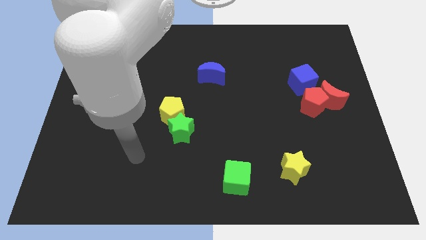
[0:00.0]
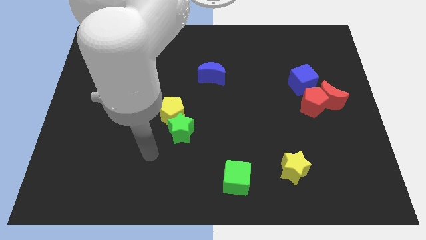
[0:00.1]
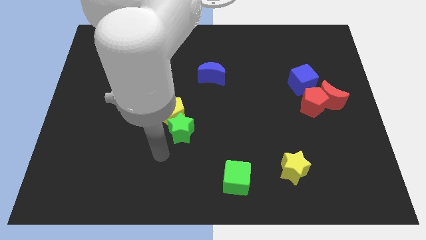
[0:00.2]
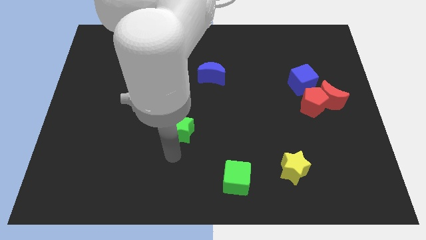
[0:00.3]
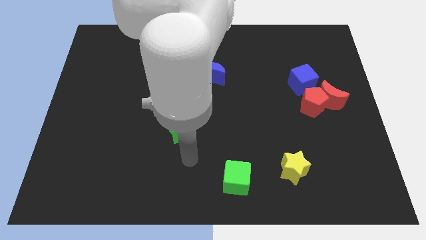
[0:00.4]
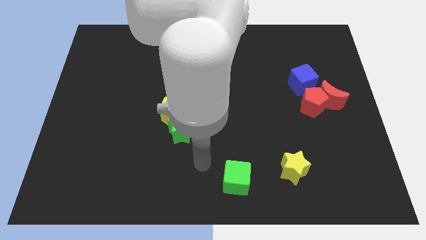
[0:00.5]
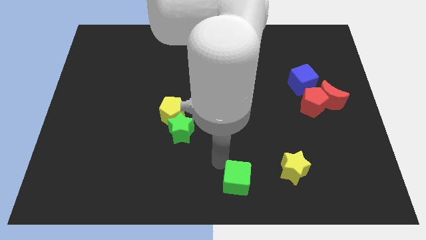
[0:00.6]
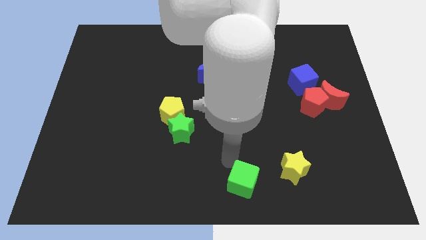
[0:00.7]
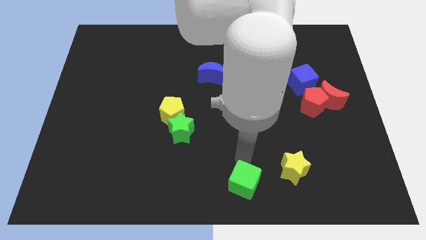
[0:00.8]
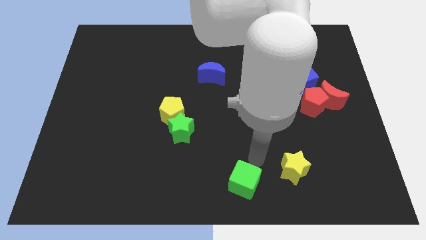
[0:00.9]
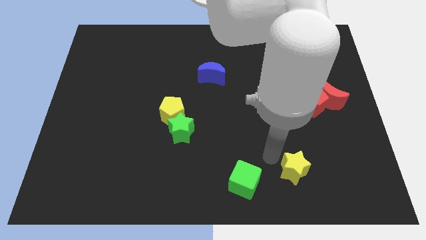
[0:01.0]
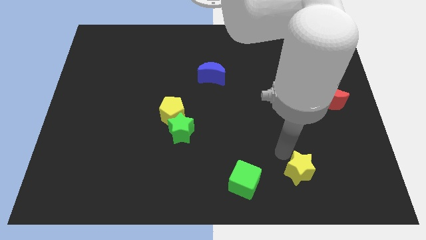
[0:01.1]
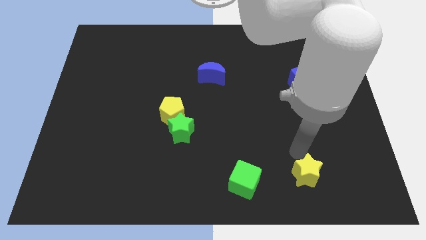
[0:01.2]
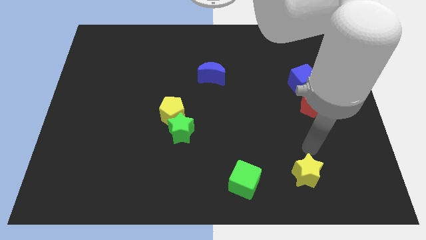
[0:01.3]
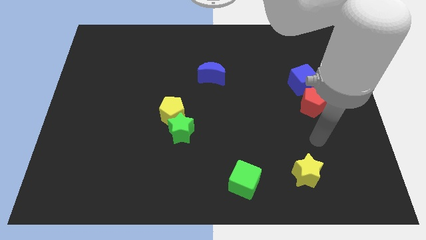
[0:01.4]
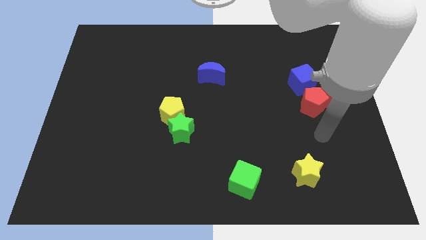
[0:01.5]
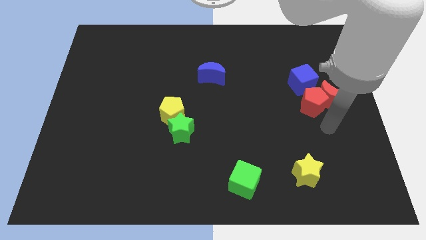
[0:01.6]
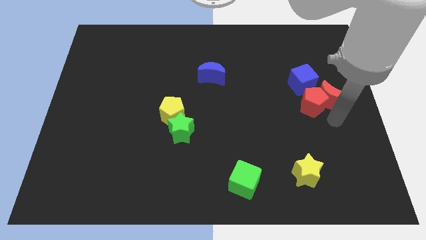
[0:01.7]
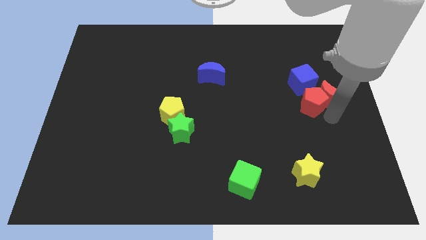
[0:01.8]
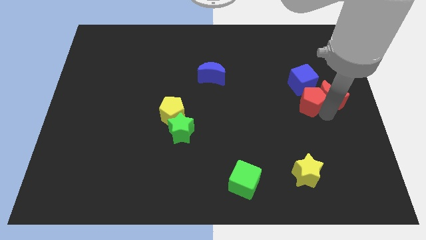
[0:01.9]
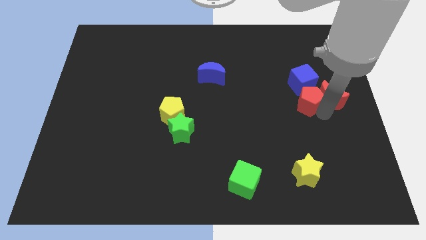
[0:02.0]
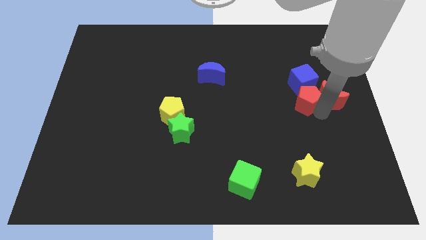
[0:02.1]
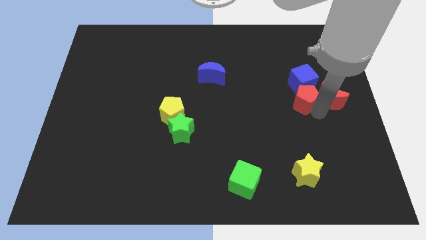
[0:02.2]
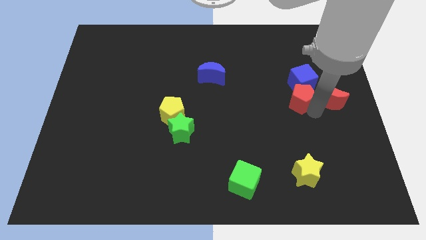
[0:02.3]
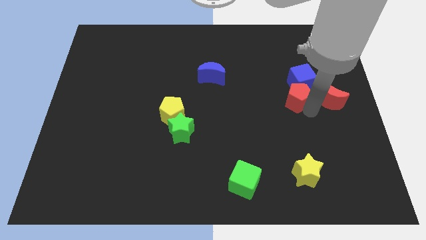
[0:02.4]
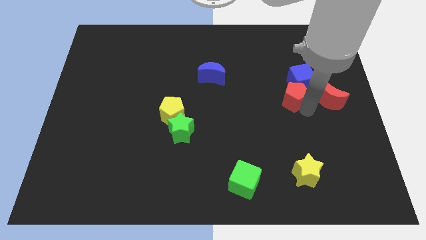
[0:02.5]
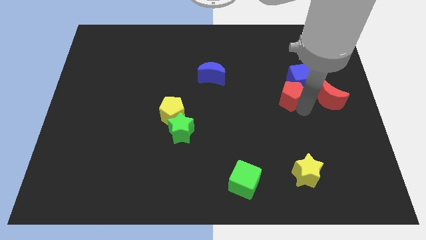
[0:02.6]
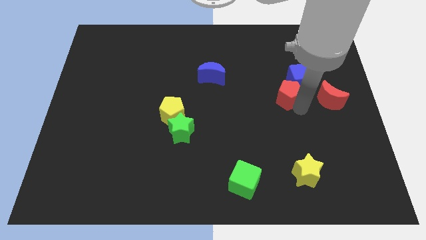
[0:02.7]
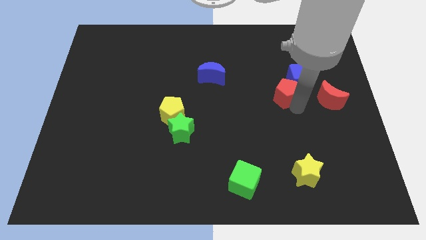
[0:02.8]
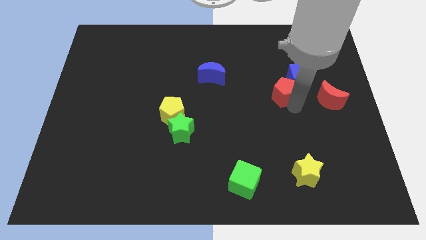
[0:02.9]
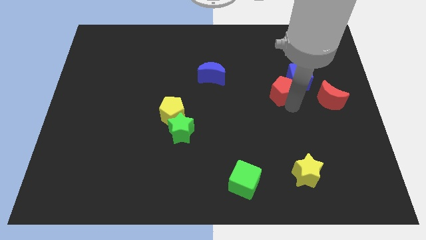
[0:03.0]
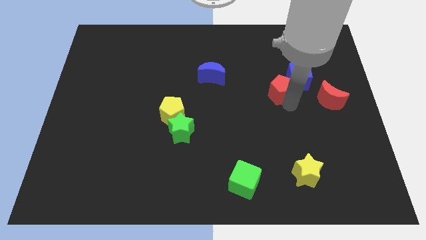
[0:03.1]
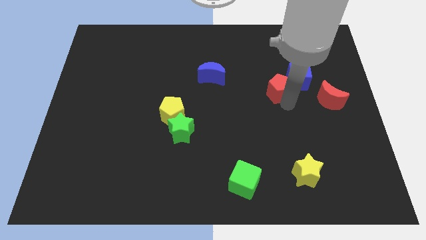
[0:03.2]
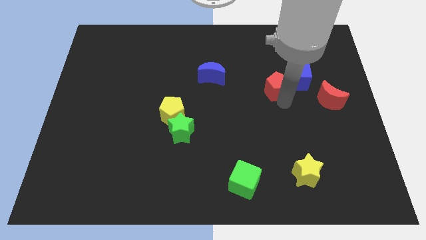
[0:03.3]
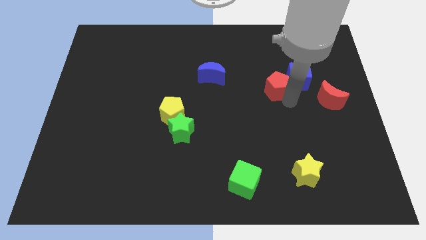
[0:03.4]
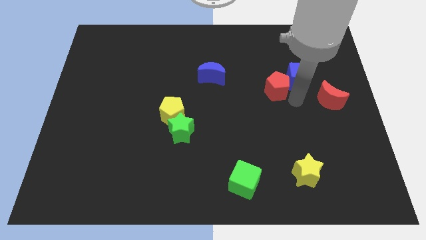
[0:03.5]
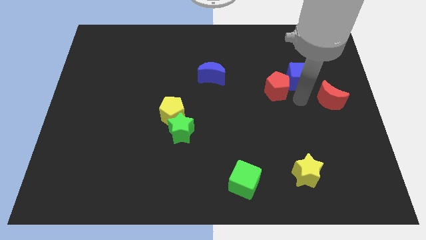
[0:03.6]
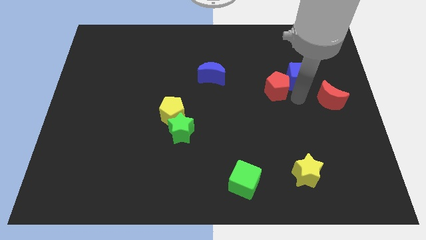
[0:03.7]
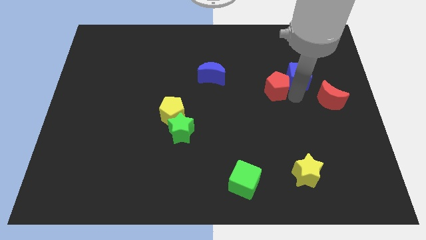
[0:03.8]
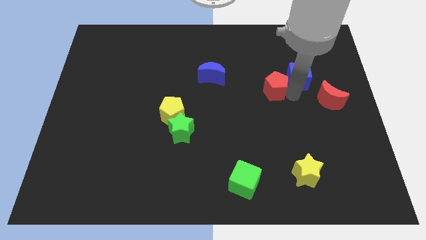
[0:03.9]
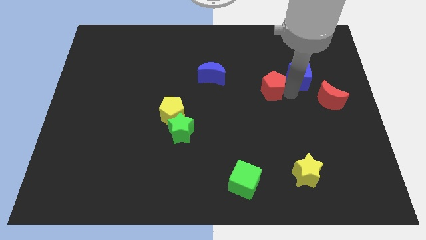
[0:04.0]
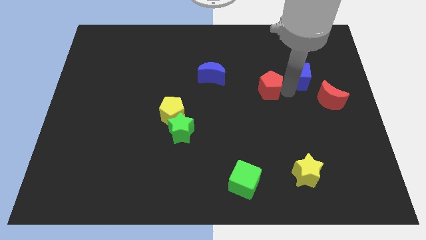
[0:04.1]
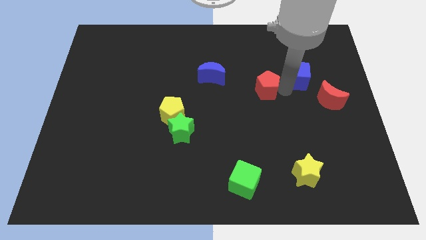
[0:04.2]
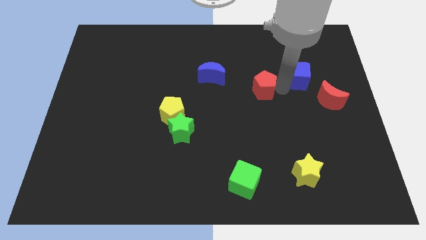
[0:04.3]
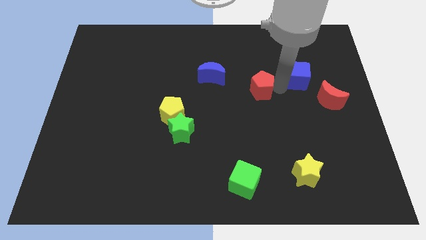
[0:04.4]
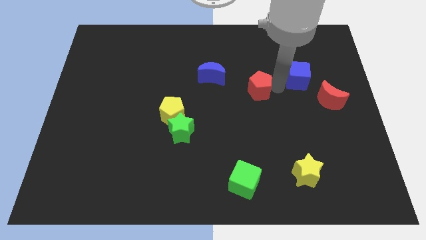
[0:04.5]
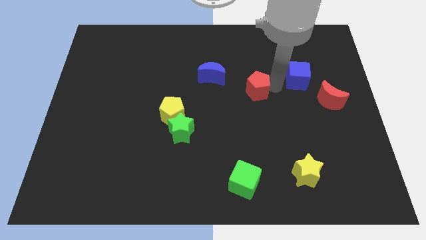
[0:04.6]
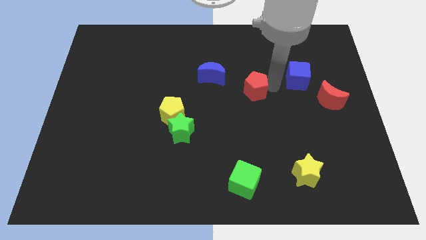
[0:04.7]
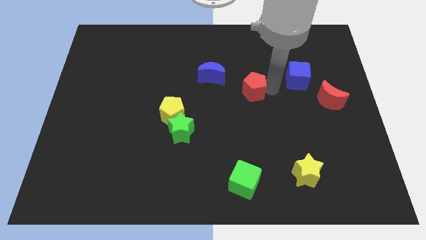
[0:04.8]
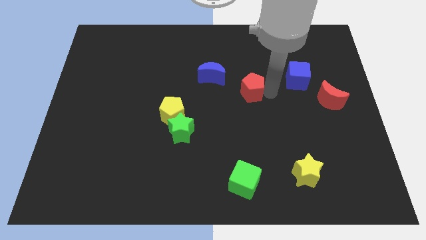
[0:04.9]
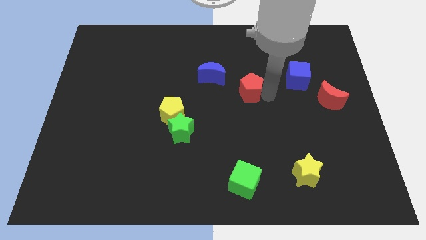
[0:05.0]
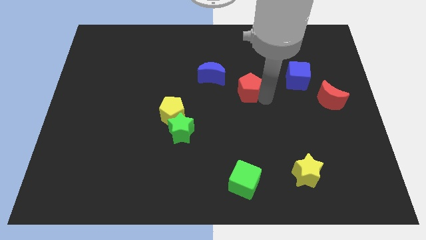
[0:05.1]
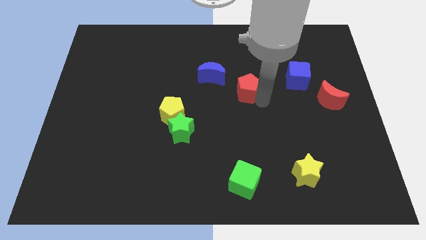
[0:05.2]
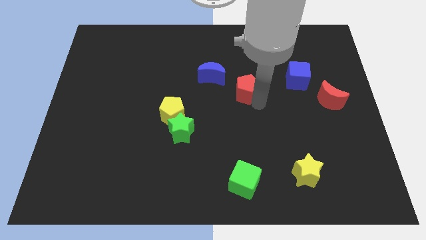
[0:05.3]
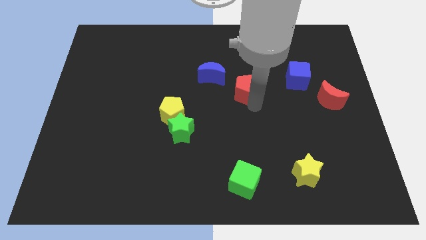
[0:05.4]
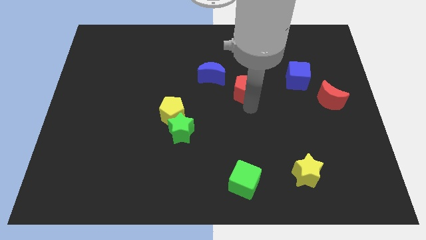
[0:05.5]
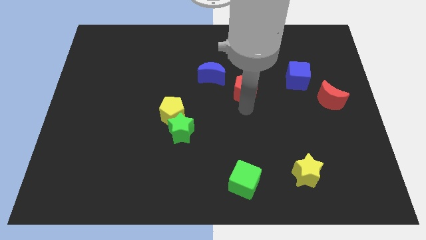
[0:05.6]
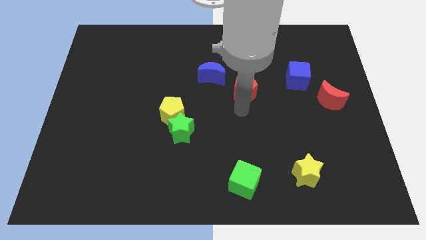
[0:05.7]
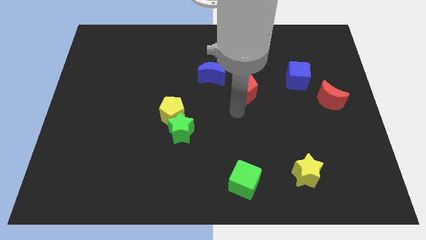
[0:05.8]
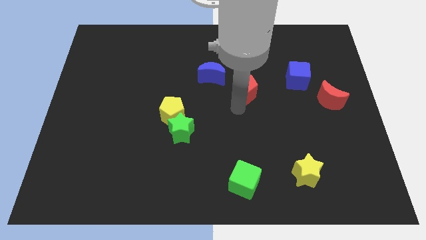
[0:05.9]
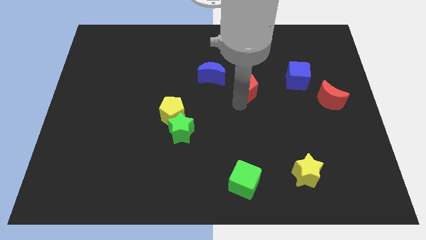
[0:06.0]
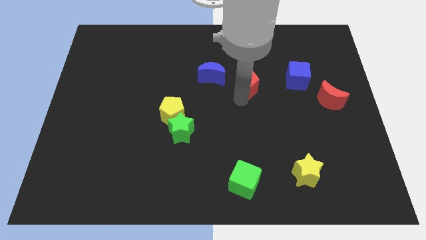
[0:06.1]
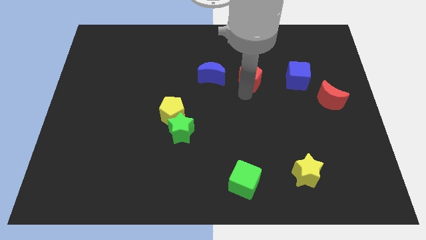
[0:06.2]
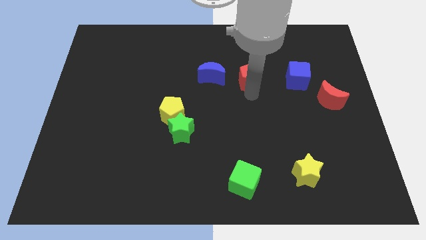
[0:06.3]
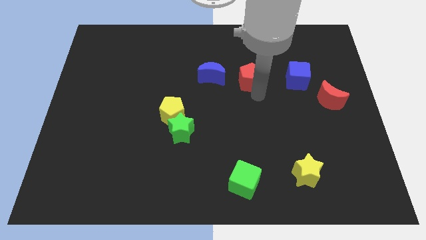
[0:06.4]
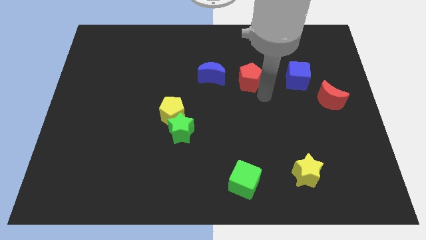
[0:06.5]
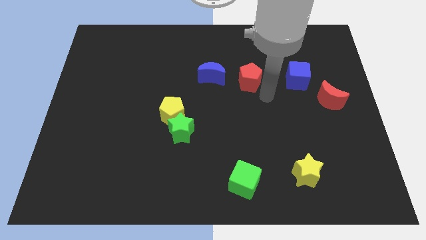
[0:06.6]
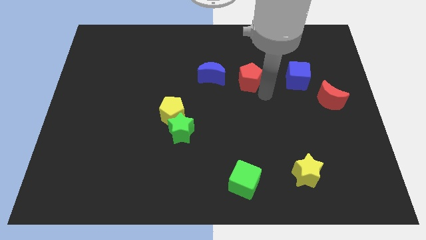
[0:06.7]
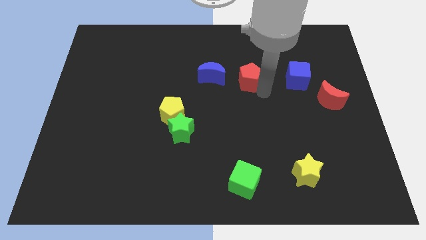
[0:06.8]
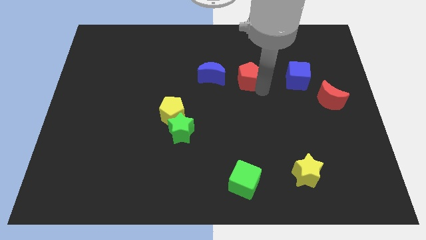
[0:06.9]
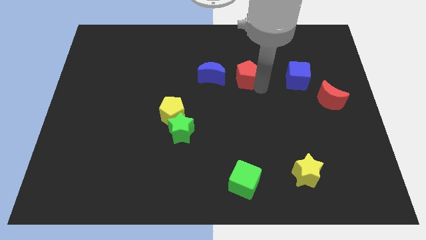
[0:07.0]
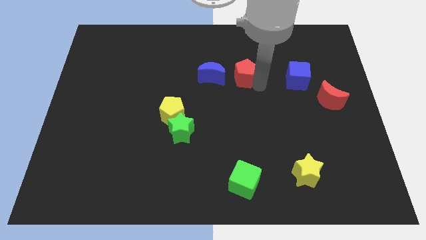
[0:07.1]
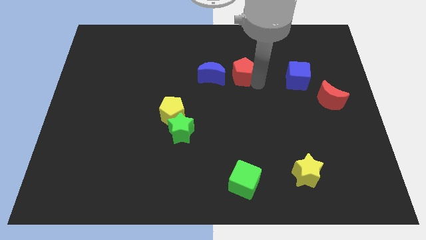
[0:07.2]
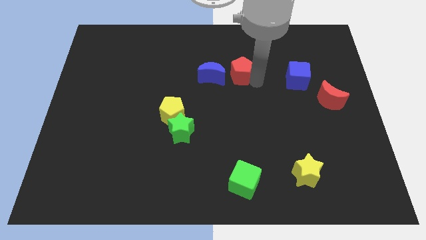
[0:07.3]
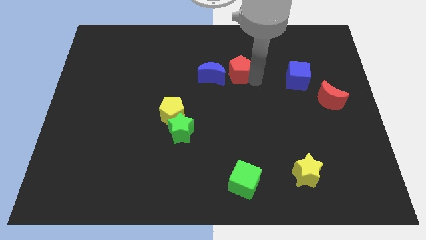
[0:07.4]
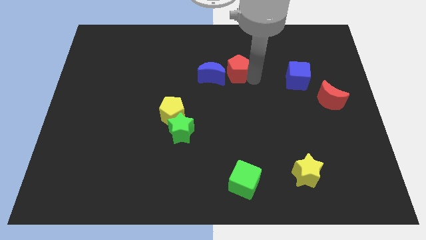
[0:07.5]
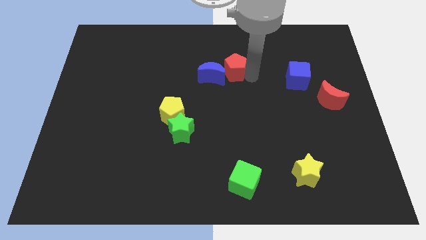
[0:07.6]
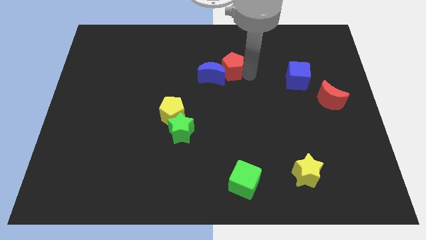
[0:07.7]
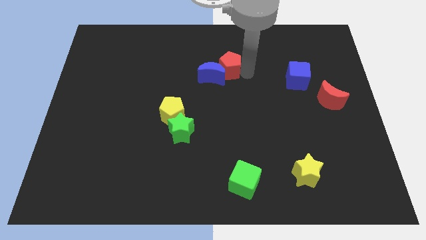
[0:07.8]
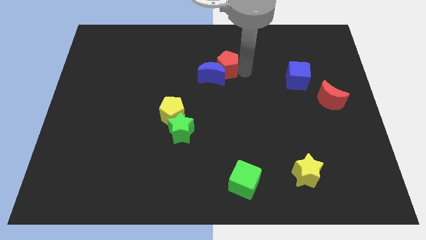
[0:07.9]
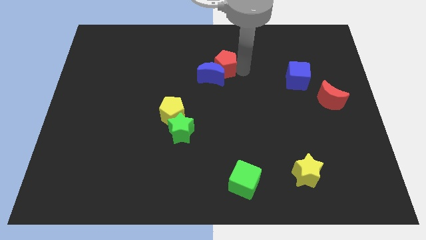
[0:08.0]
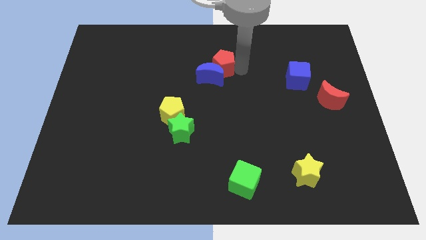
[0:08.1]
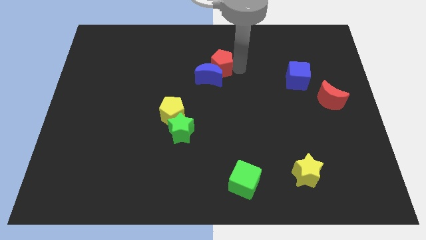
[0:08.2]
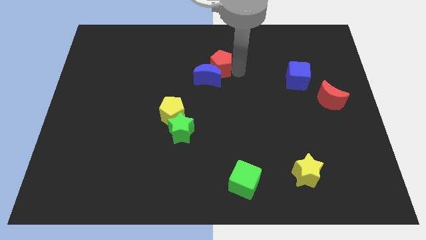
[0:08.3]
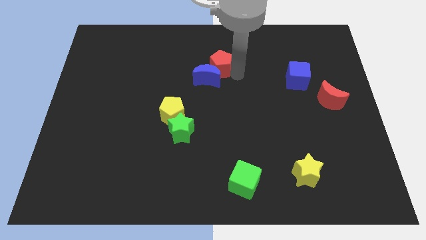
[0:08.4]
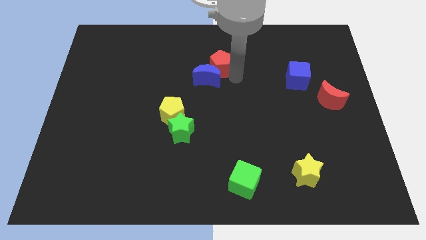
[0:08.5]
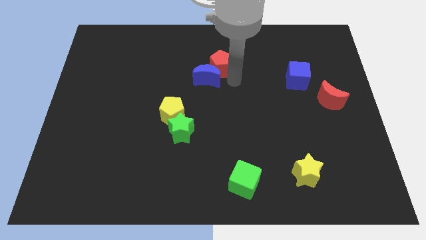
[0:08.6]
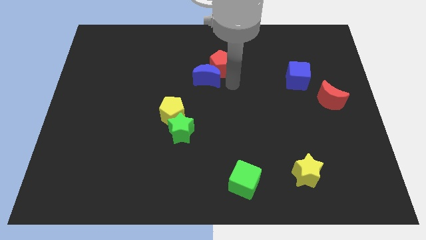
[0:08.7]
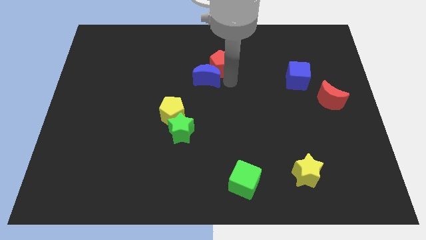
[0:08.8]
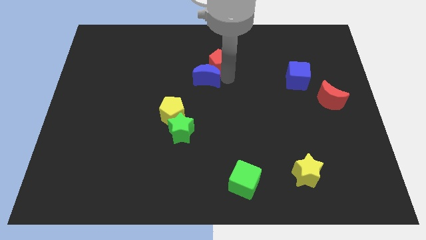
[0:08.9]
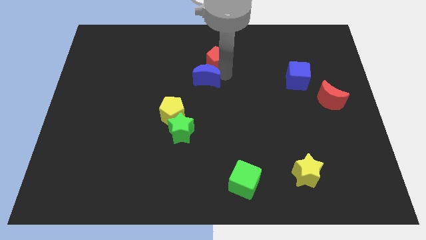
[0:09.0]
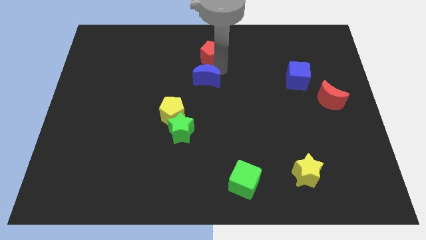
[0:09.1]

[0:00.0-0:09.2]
move the red pentagon to the top side
